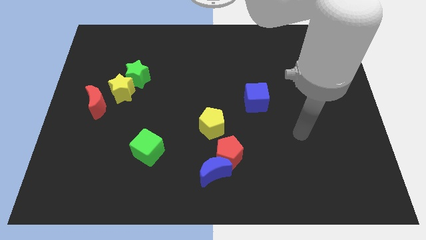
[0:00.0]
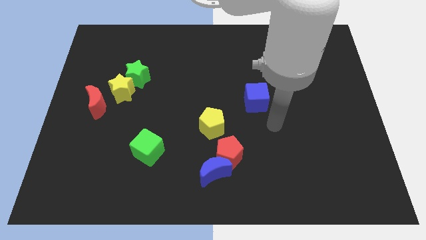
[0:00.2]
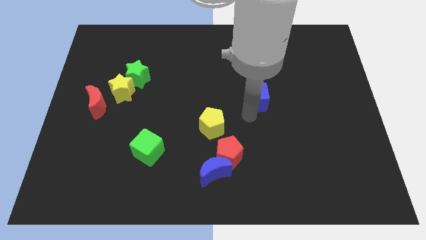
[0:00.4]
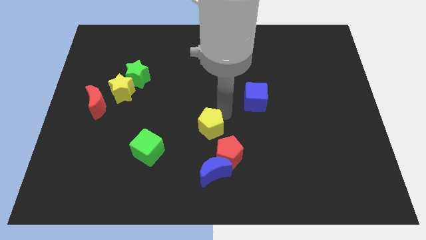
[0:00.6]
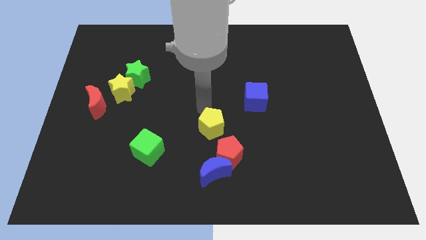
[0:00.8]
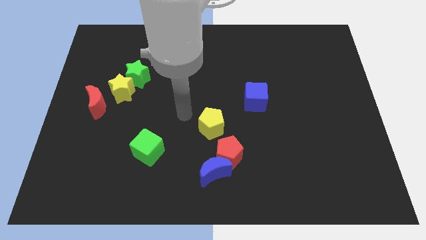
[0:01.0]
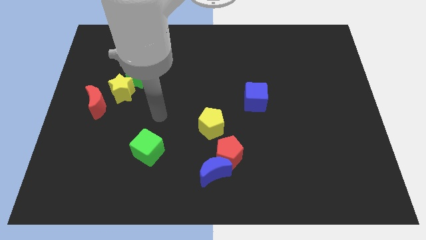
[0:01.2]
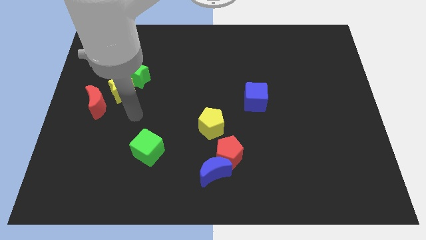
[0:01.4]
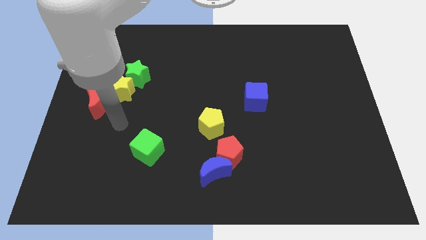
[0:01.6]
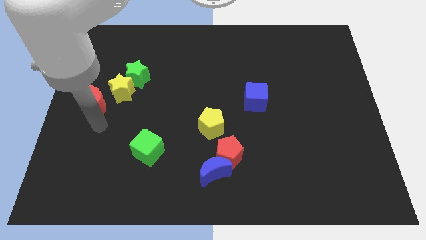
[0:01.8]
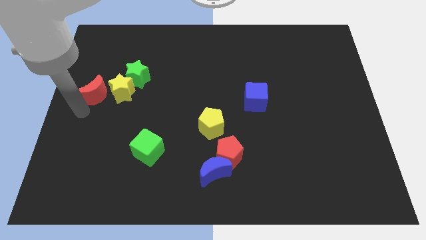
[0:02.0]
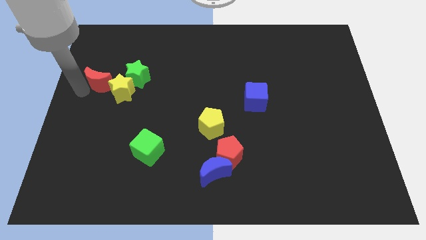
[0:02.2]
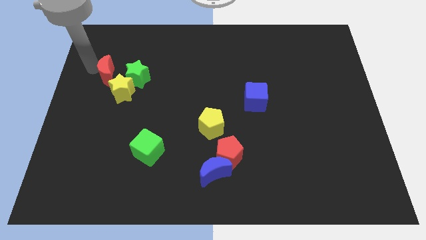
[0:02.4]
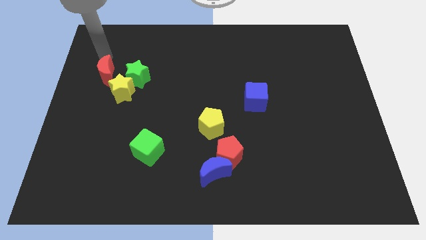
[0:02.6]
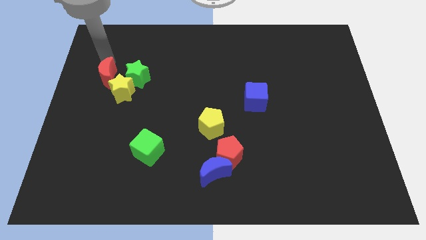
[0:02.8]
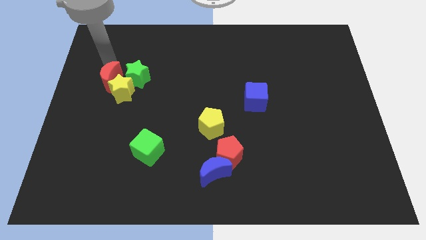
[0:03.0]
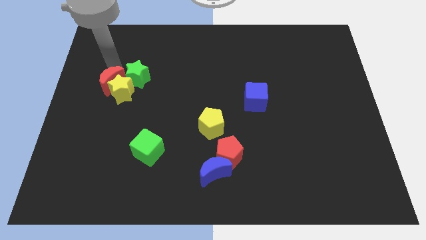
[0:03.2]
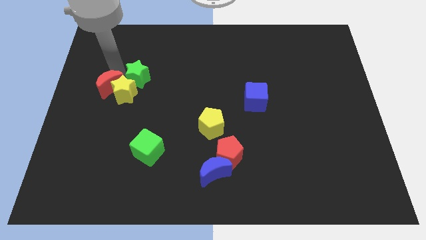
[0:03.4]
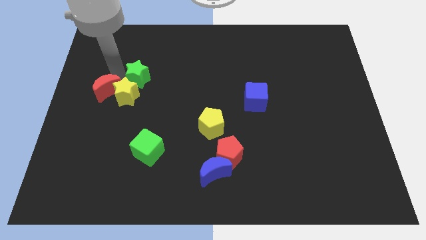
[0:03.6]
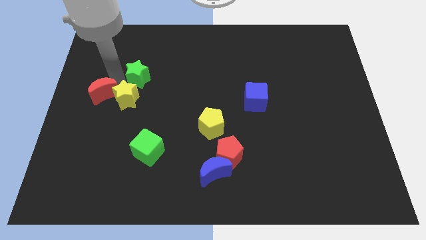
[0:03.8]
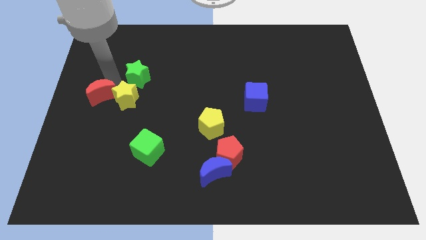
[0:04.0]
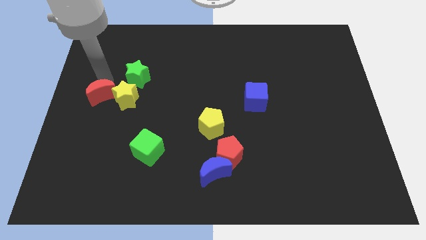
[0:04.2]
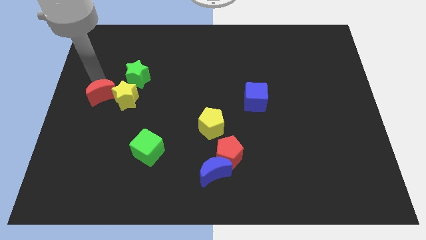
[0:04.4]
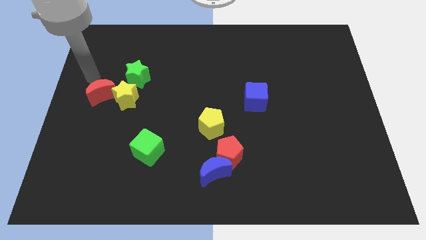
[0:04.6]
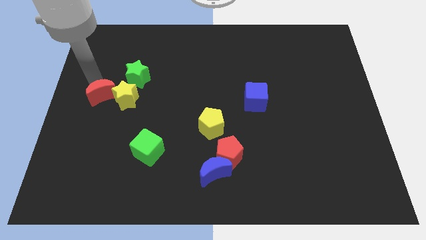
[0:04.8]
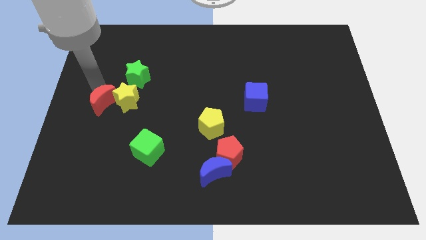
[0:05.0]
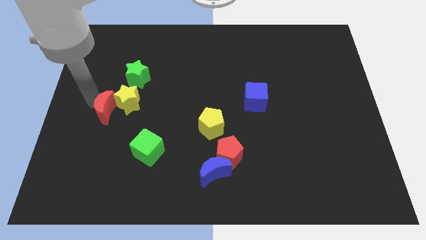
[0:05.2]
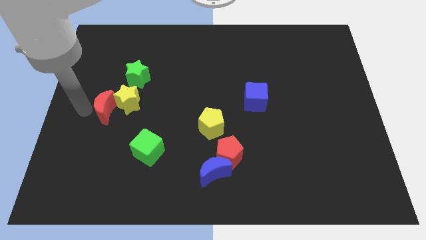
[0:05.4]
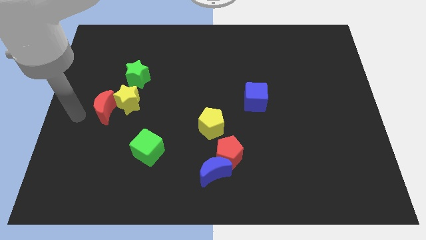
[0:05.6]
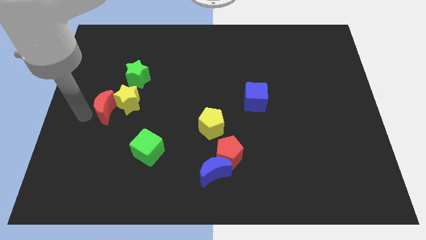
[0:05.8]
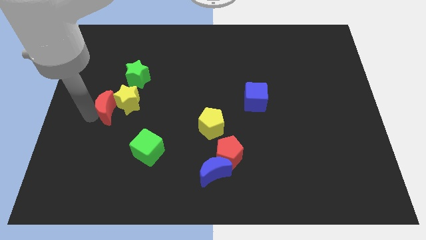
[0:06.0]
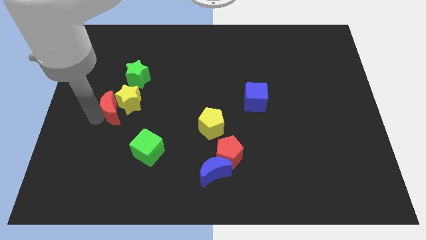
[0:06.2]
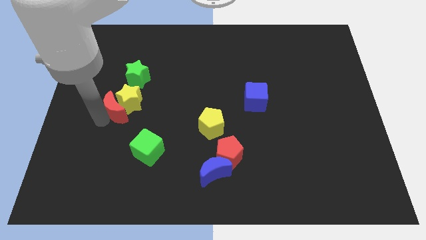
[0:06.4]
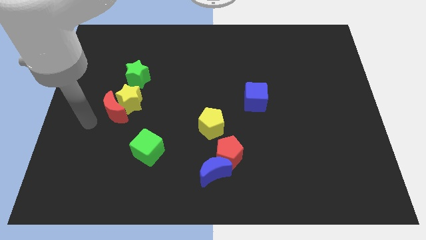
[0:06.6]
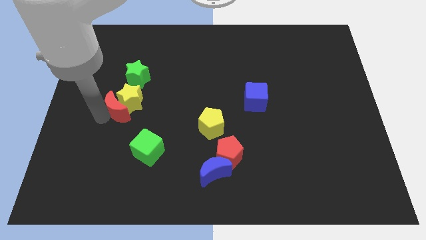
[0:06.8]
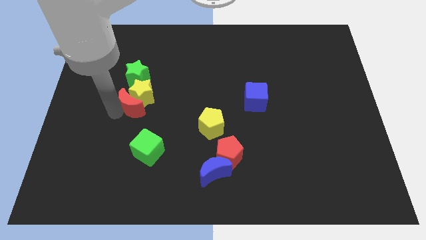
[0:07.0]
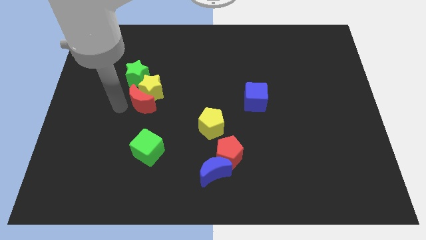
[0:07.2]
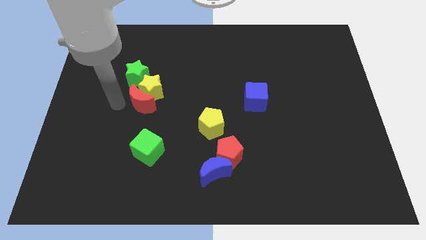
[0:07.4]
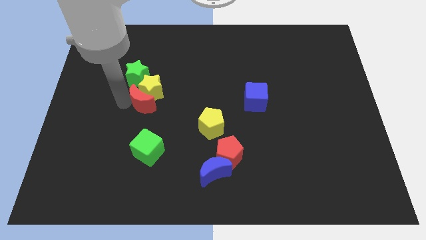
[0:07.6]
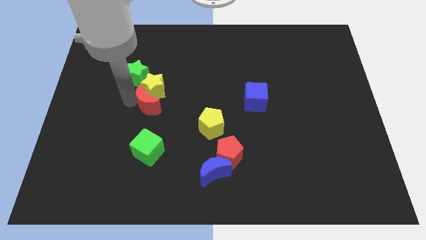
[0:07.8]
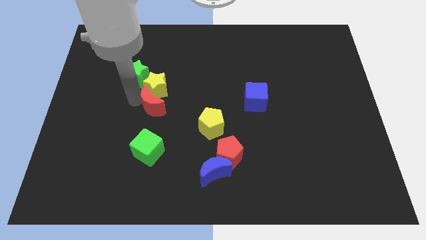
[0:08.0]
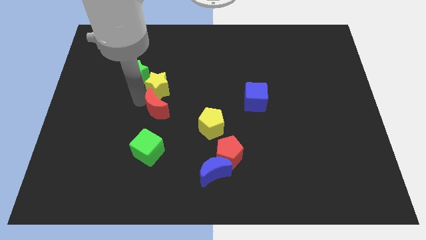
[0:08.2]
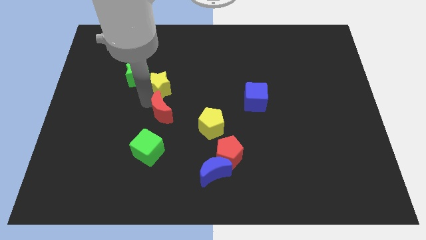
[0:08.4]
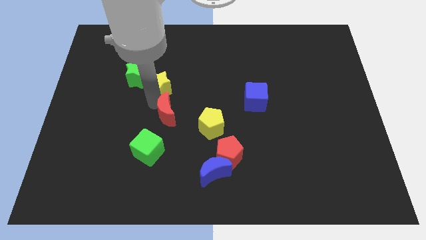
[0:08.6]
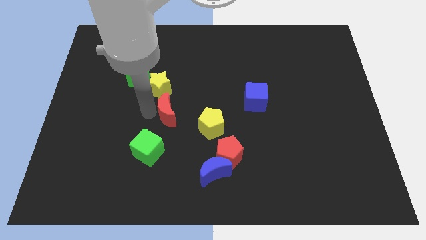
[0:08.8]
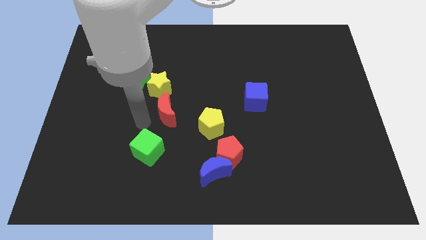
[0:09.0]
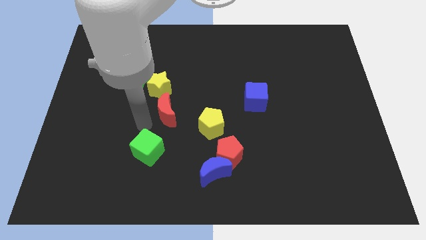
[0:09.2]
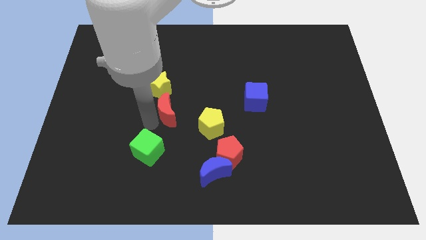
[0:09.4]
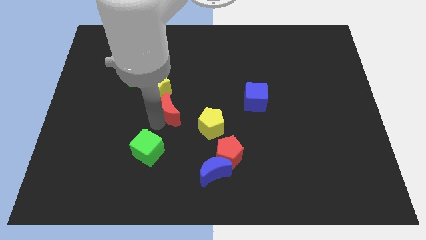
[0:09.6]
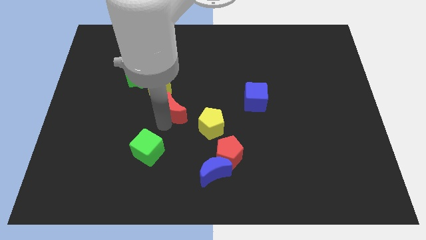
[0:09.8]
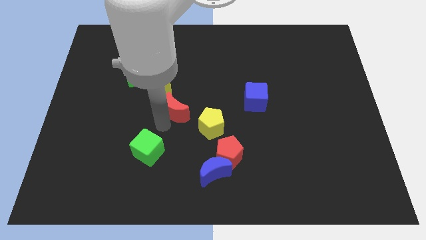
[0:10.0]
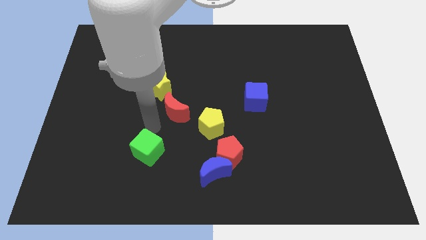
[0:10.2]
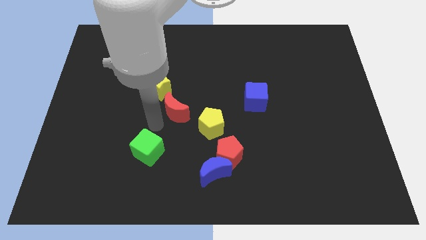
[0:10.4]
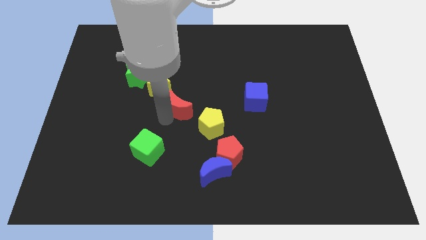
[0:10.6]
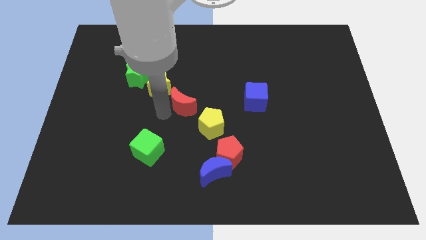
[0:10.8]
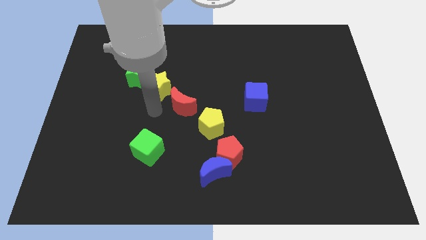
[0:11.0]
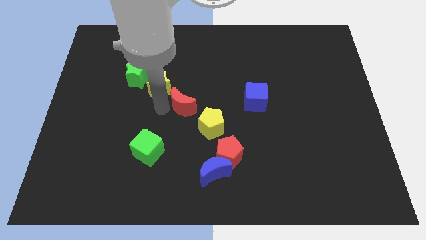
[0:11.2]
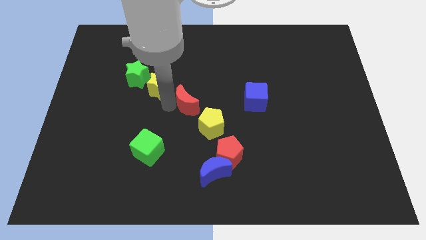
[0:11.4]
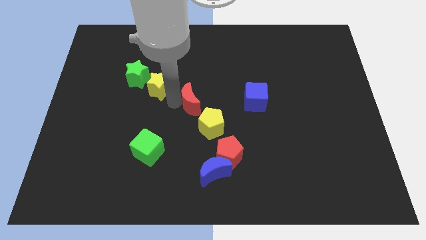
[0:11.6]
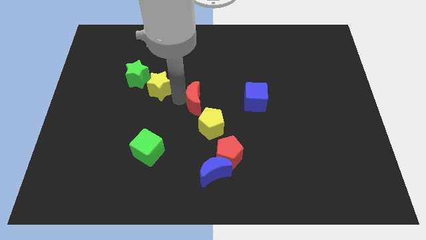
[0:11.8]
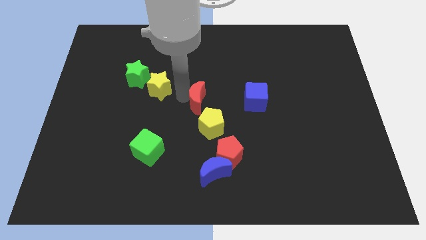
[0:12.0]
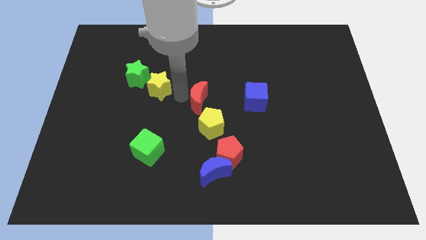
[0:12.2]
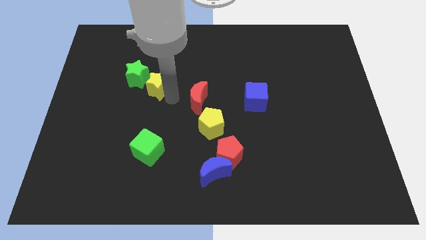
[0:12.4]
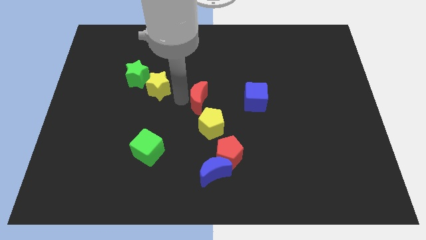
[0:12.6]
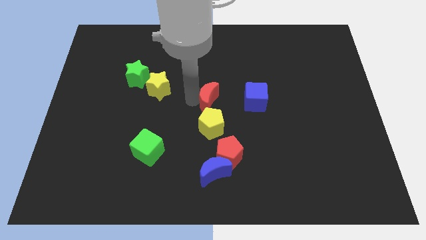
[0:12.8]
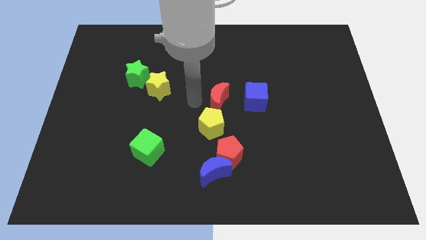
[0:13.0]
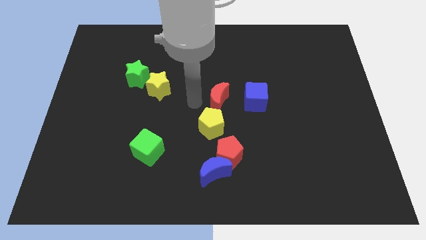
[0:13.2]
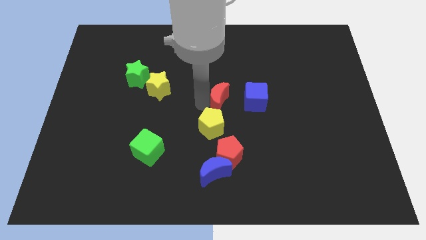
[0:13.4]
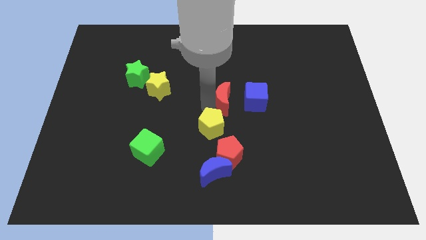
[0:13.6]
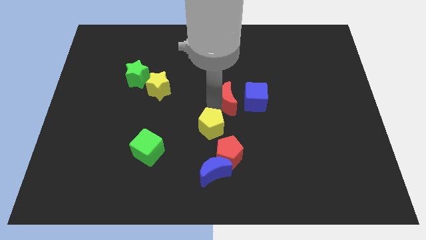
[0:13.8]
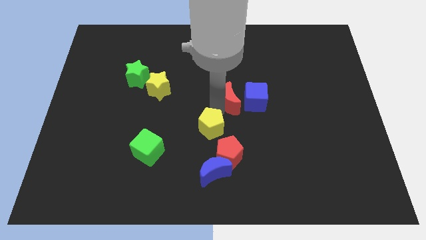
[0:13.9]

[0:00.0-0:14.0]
push the red moon next to the blue cube

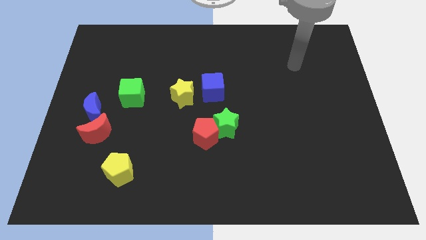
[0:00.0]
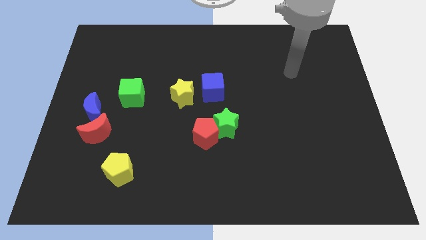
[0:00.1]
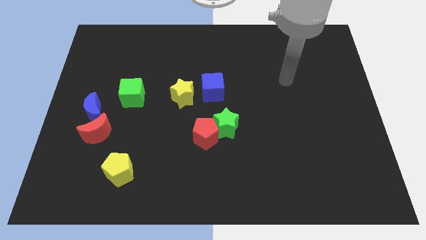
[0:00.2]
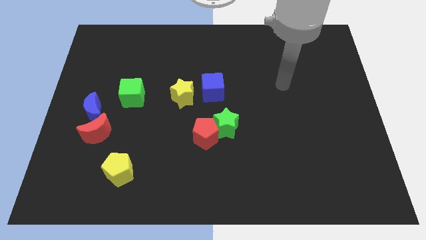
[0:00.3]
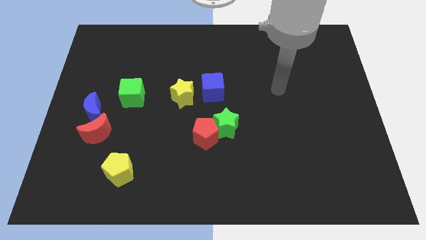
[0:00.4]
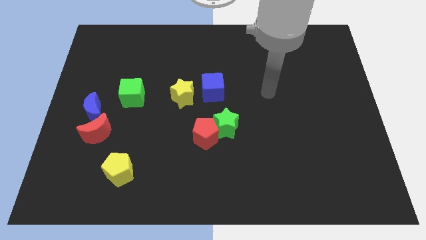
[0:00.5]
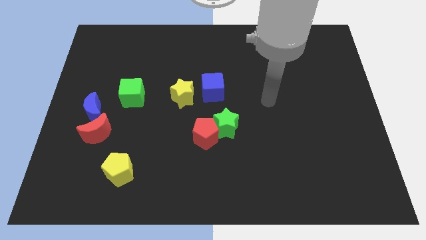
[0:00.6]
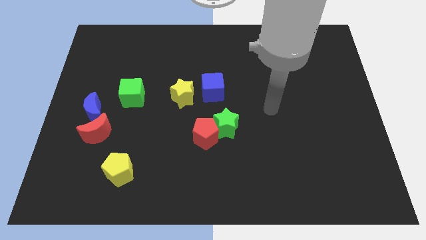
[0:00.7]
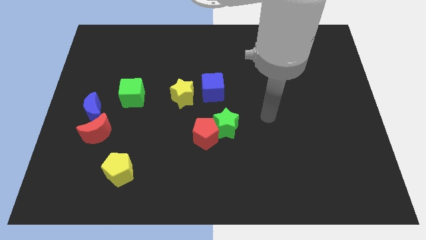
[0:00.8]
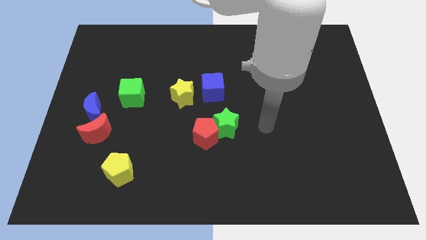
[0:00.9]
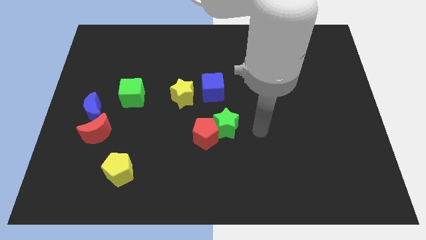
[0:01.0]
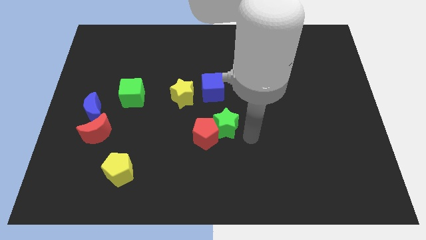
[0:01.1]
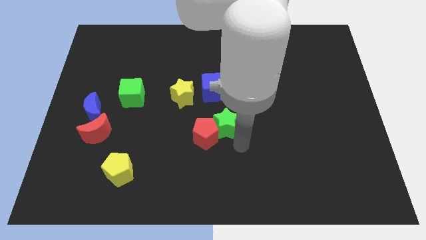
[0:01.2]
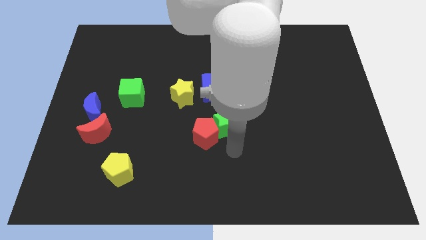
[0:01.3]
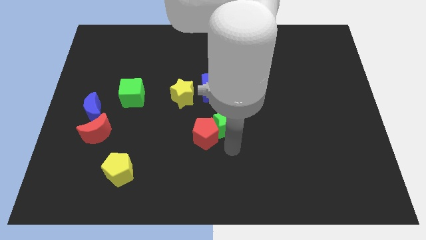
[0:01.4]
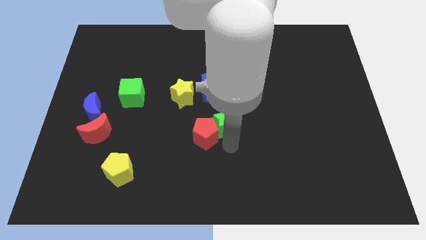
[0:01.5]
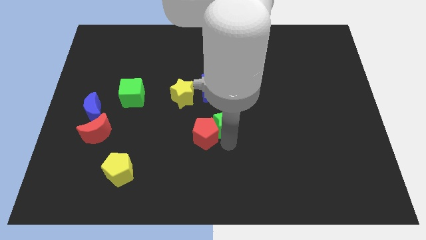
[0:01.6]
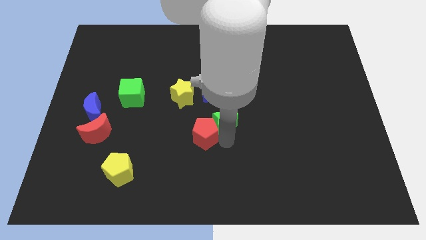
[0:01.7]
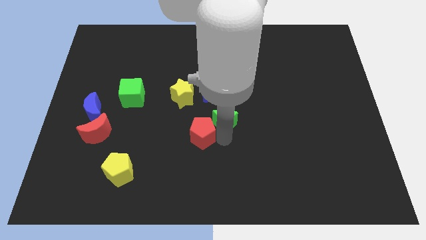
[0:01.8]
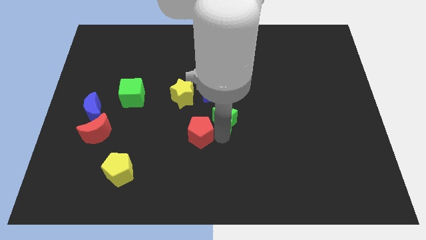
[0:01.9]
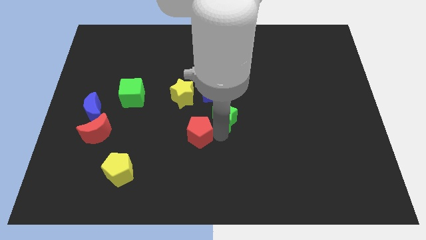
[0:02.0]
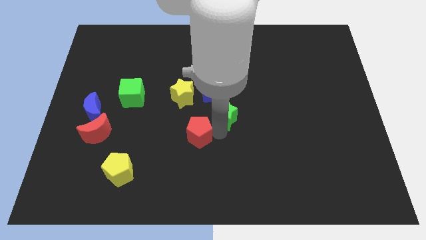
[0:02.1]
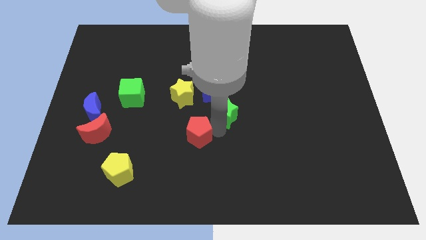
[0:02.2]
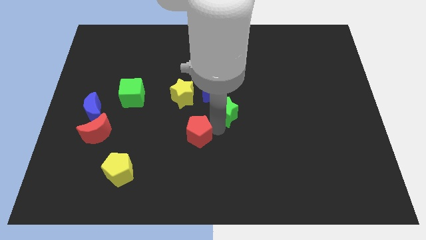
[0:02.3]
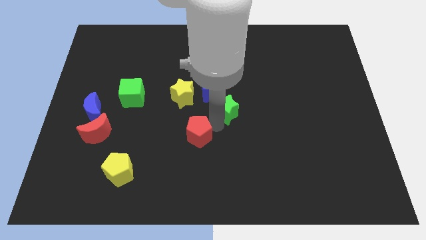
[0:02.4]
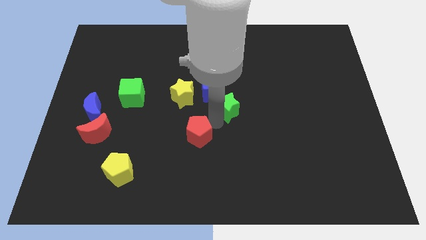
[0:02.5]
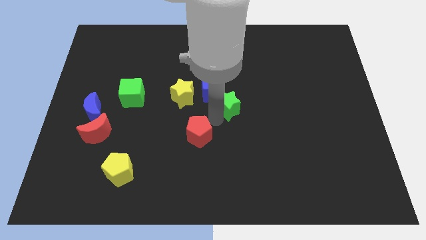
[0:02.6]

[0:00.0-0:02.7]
slide the green star close to the blue cube
